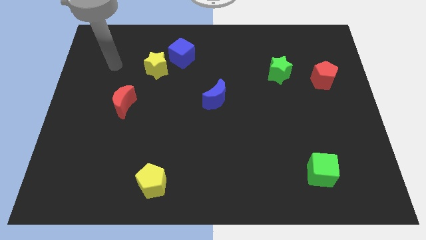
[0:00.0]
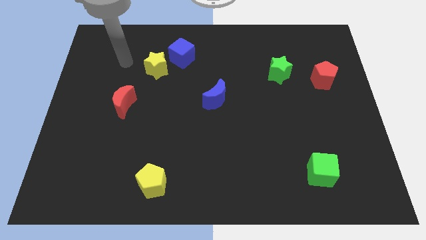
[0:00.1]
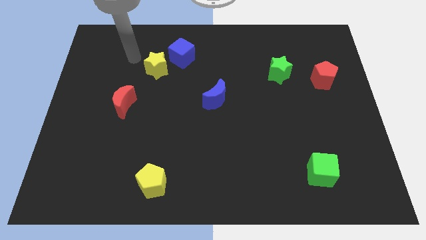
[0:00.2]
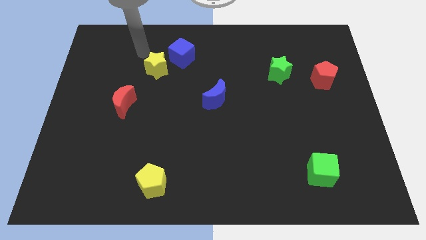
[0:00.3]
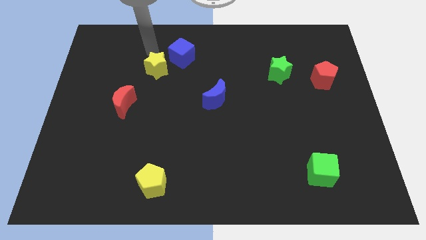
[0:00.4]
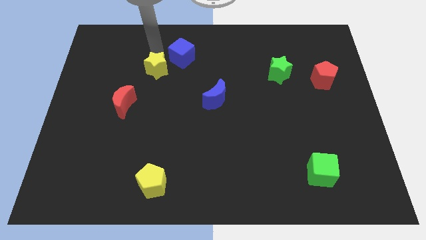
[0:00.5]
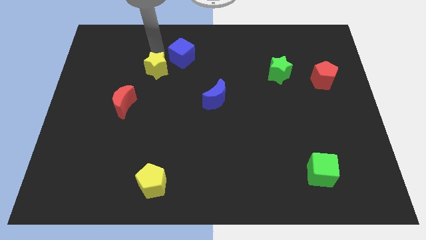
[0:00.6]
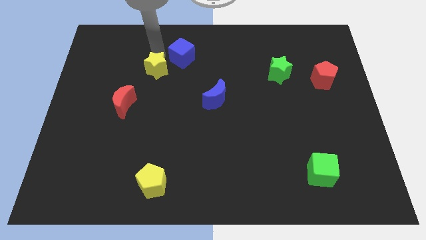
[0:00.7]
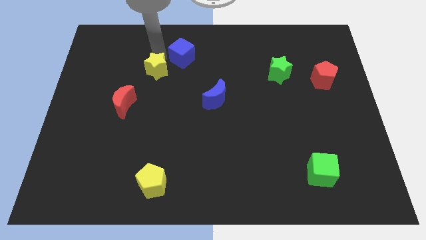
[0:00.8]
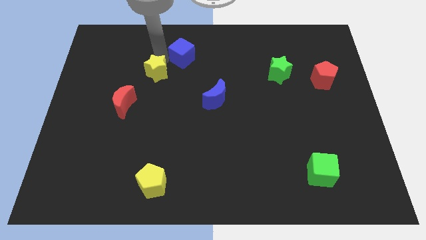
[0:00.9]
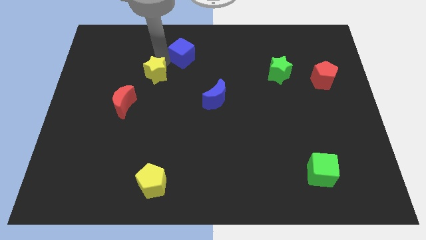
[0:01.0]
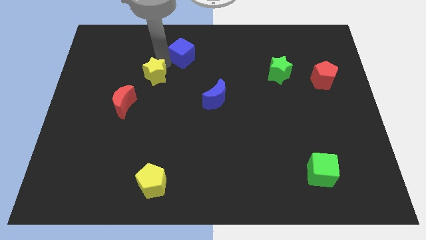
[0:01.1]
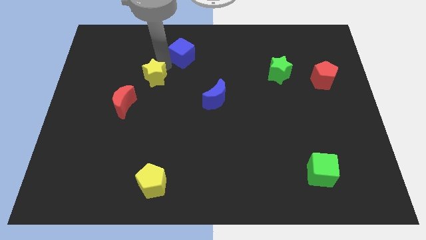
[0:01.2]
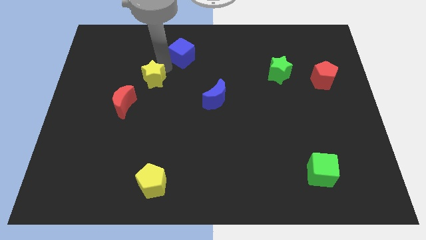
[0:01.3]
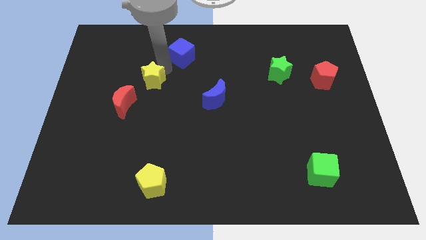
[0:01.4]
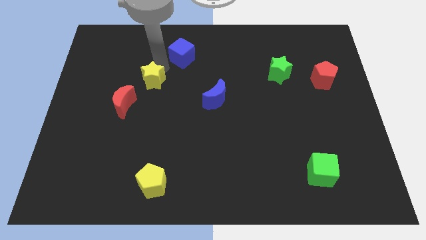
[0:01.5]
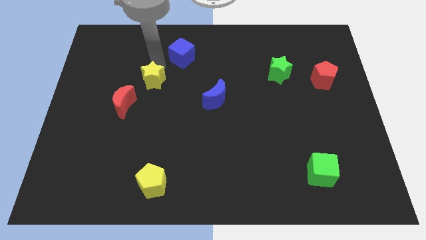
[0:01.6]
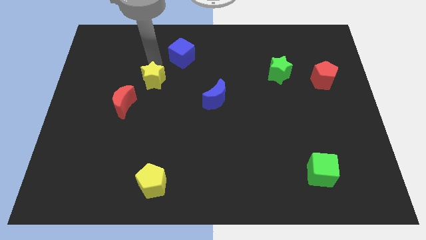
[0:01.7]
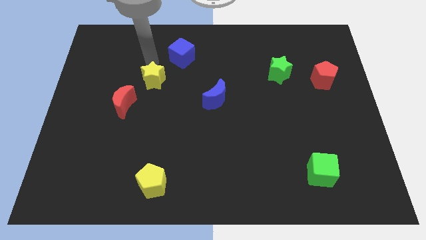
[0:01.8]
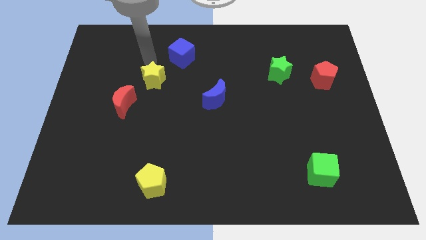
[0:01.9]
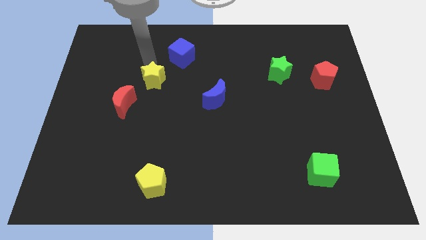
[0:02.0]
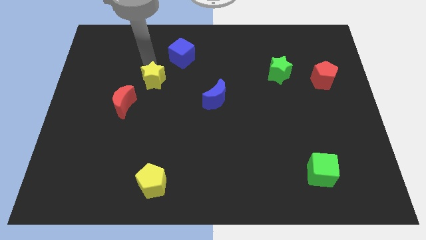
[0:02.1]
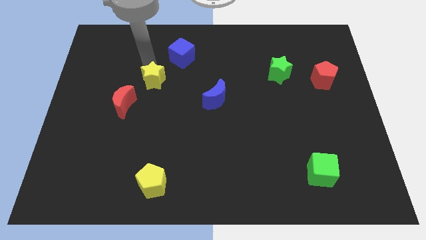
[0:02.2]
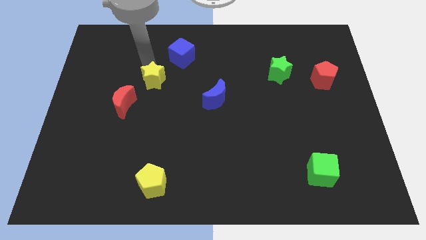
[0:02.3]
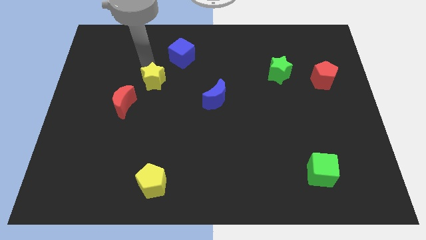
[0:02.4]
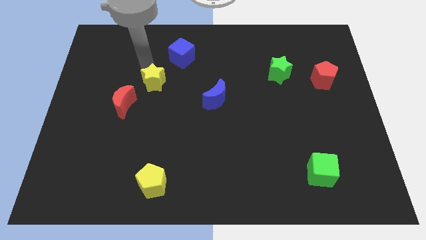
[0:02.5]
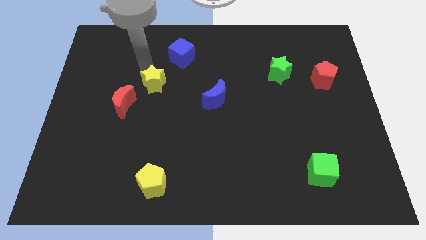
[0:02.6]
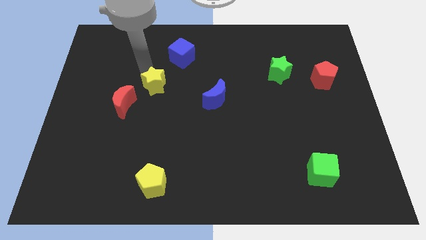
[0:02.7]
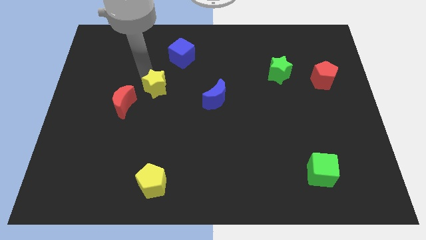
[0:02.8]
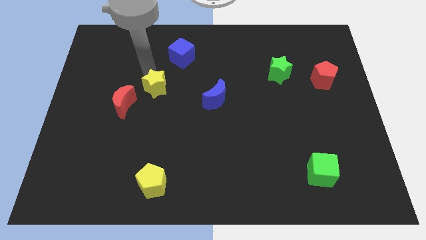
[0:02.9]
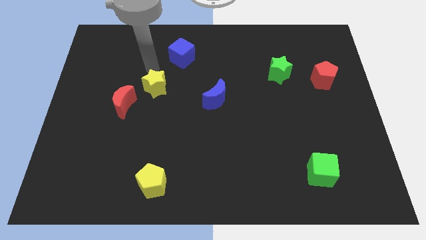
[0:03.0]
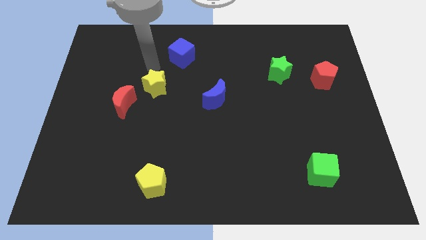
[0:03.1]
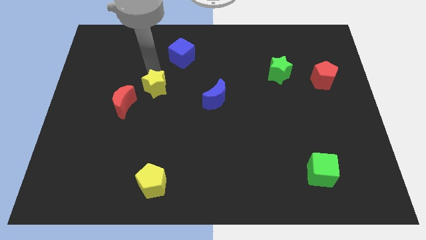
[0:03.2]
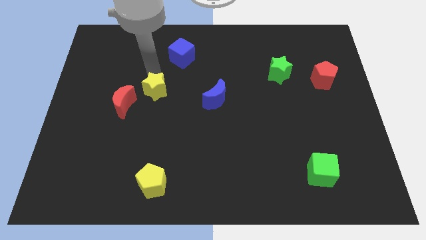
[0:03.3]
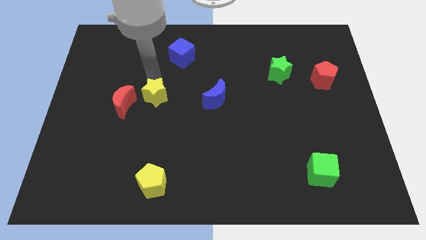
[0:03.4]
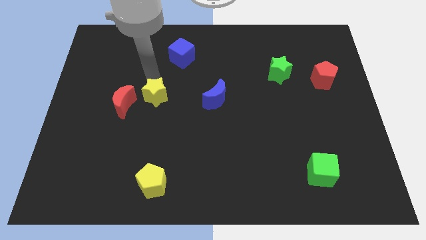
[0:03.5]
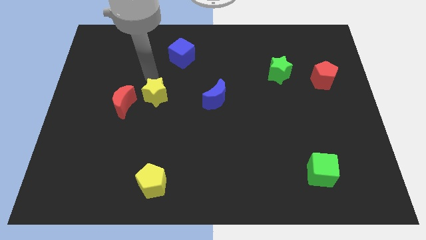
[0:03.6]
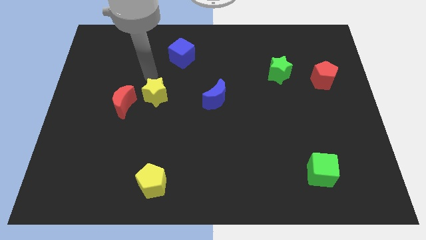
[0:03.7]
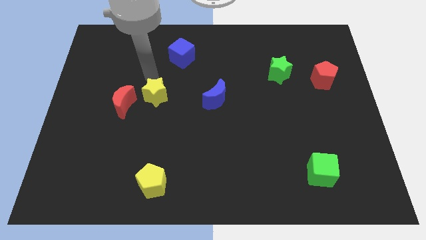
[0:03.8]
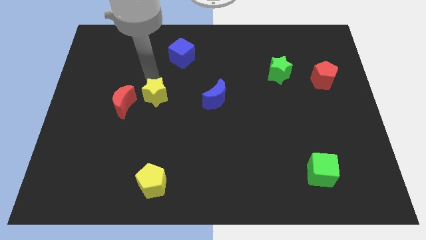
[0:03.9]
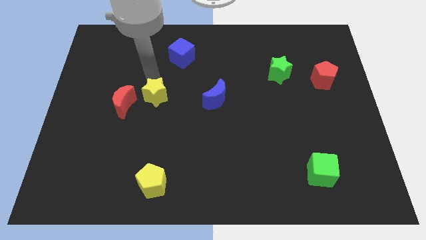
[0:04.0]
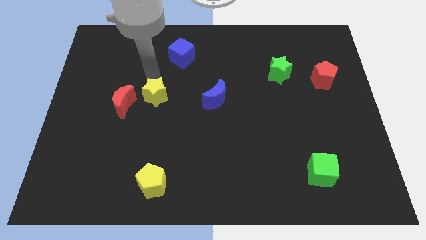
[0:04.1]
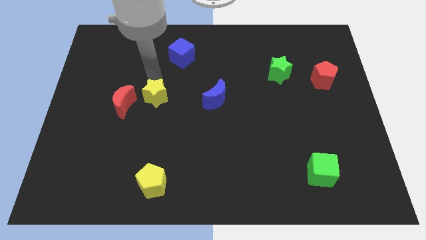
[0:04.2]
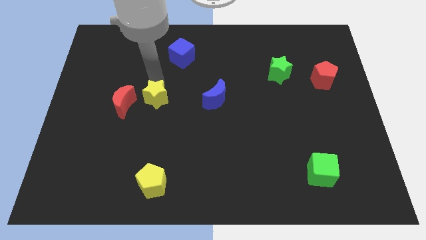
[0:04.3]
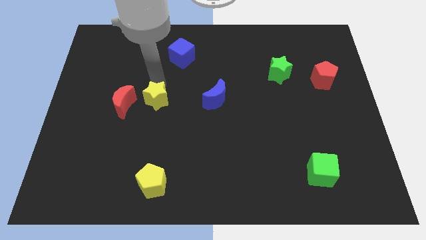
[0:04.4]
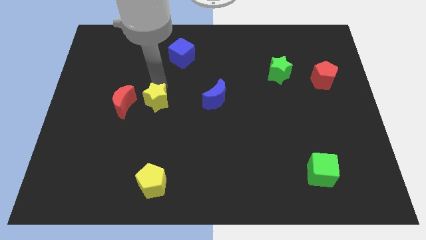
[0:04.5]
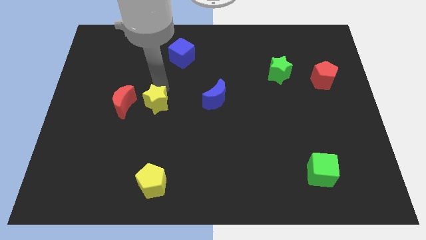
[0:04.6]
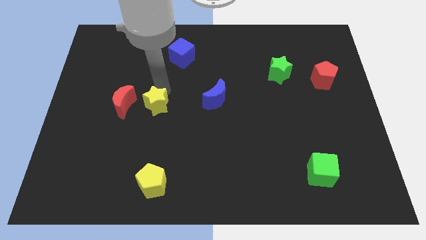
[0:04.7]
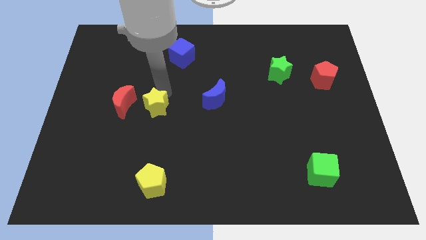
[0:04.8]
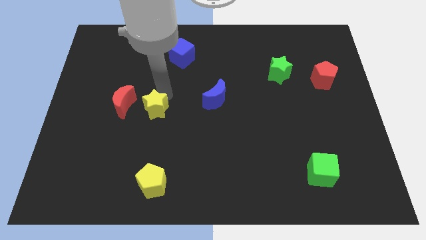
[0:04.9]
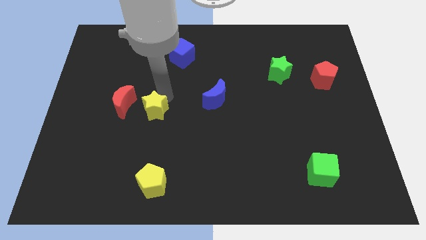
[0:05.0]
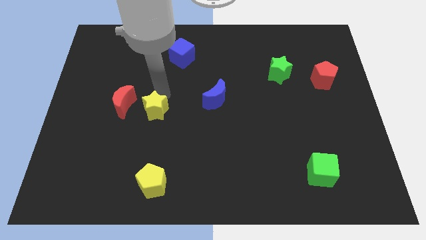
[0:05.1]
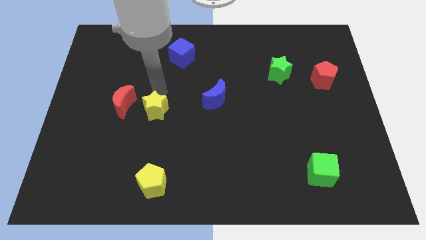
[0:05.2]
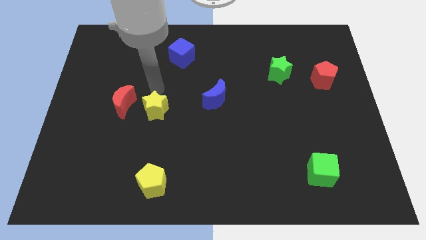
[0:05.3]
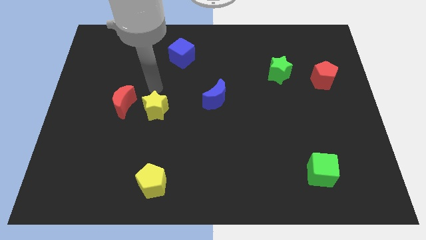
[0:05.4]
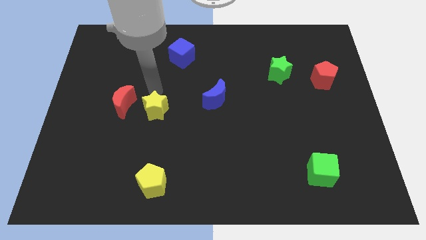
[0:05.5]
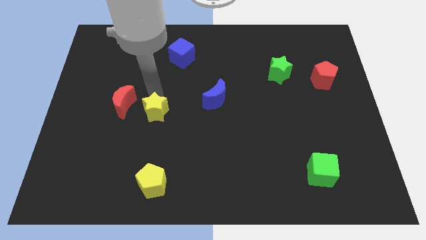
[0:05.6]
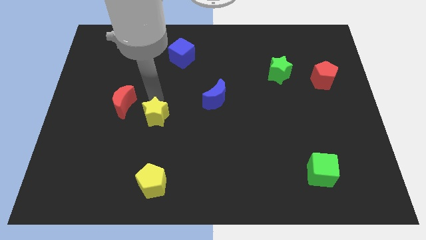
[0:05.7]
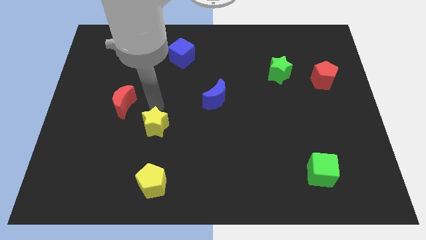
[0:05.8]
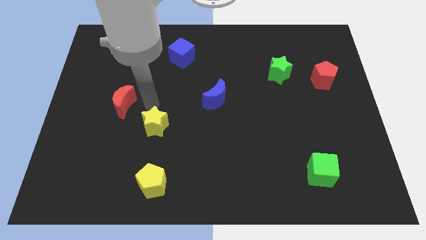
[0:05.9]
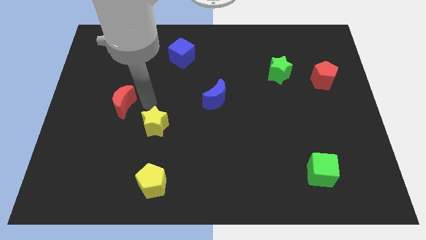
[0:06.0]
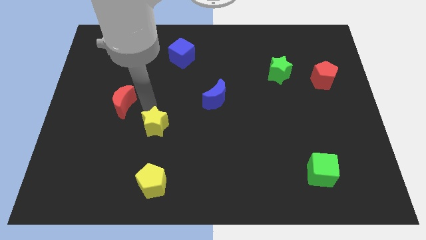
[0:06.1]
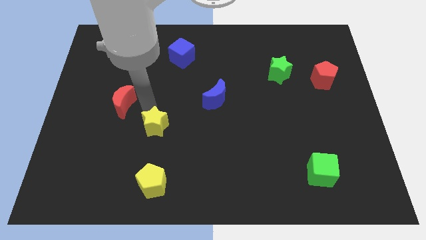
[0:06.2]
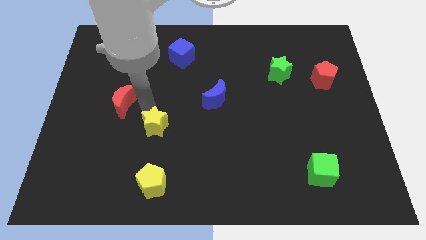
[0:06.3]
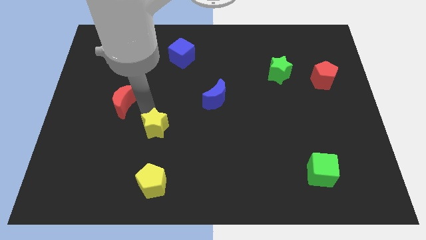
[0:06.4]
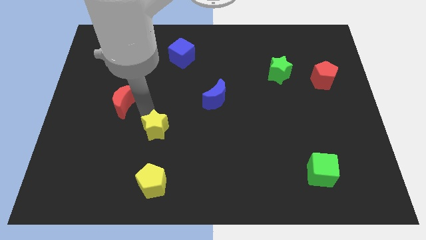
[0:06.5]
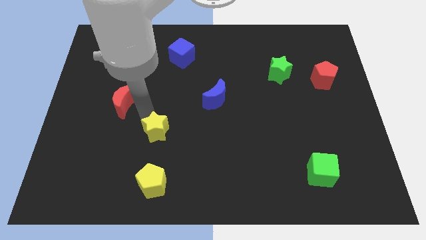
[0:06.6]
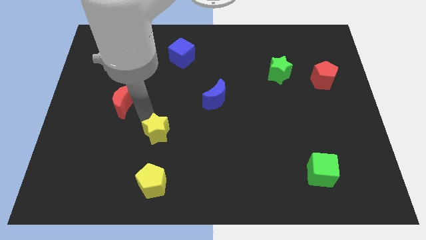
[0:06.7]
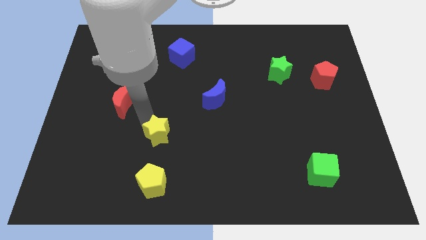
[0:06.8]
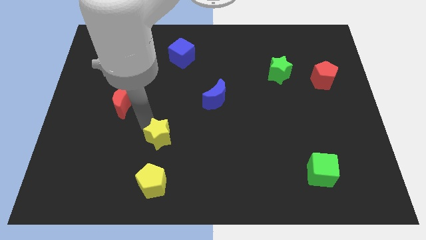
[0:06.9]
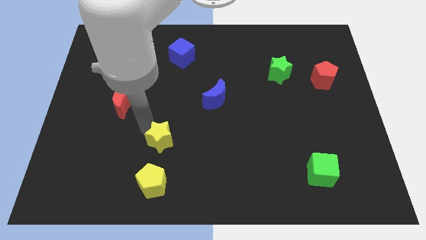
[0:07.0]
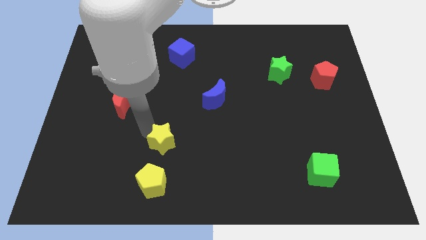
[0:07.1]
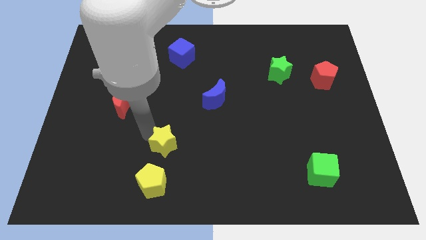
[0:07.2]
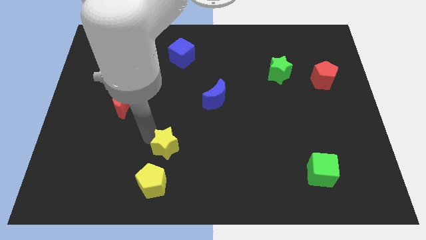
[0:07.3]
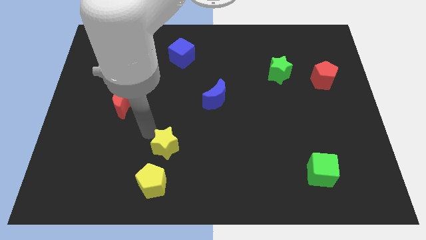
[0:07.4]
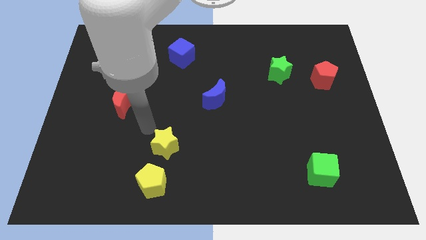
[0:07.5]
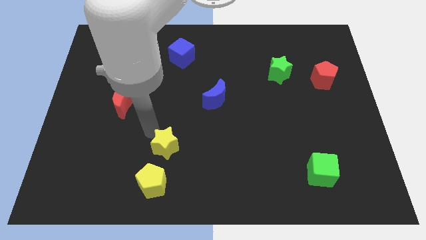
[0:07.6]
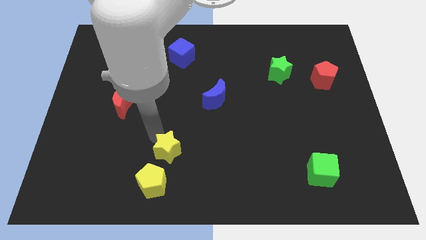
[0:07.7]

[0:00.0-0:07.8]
move the yellow star to the top right of the yellow pentagon

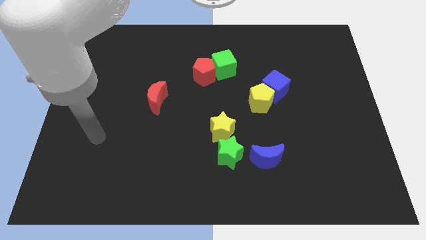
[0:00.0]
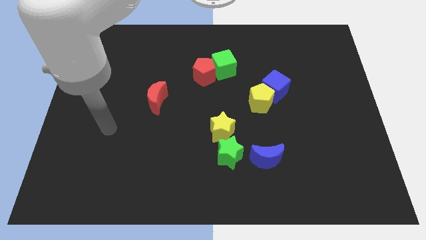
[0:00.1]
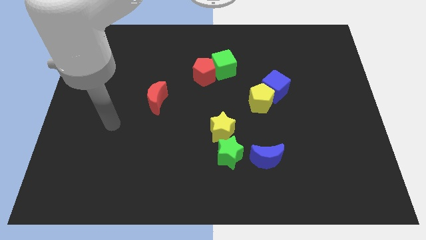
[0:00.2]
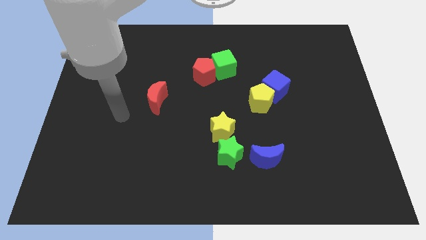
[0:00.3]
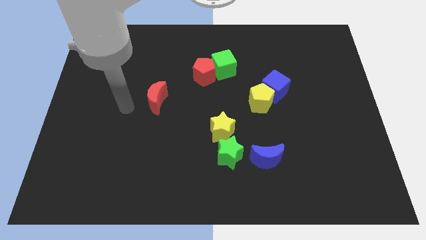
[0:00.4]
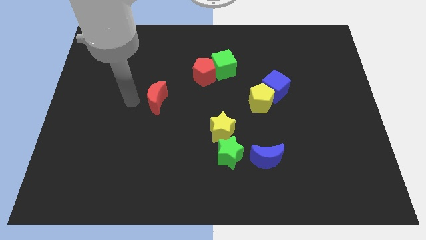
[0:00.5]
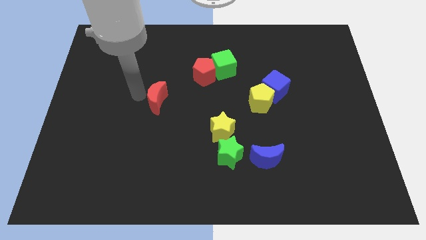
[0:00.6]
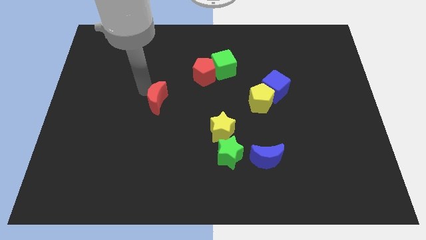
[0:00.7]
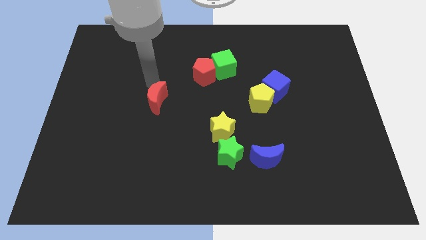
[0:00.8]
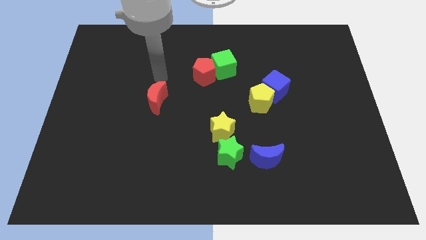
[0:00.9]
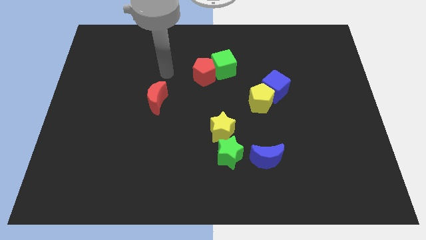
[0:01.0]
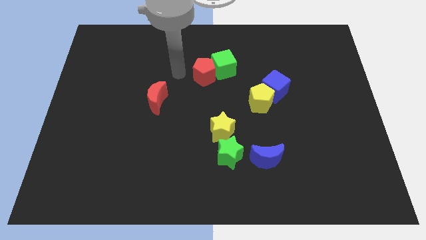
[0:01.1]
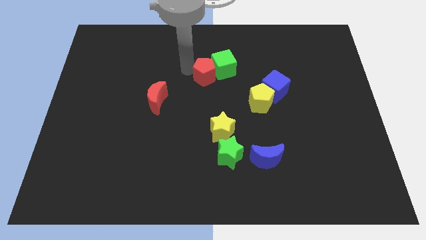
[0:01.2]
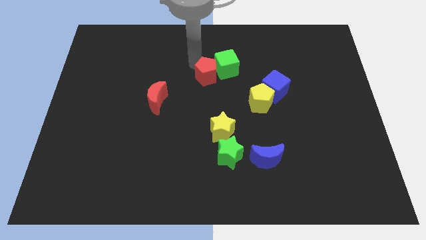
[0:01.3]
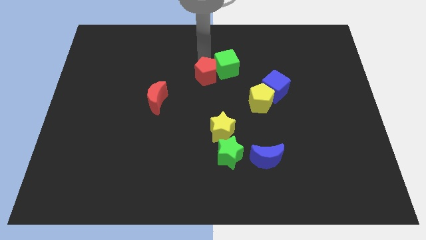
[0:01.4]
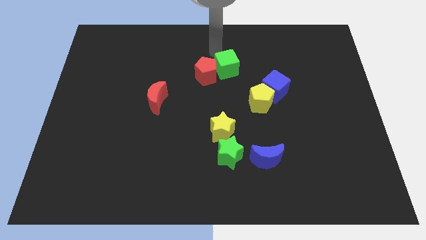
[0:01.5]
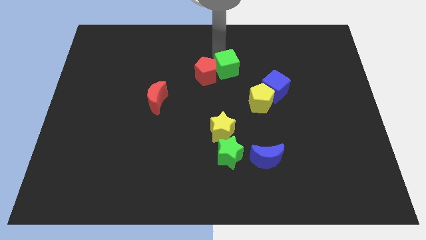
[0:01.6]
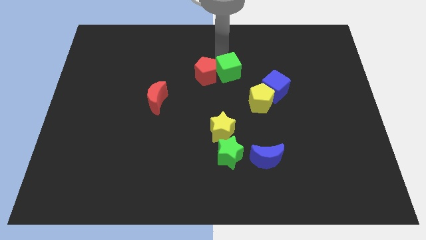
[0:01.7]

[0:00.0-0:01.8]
put the green cube diagonally up and to the left of the yellow pentagon
